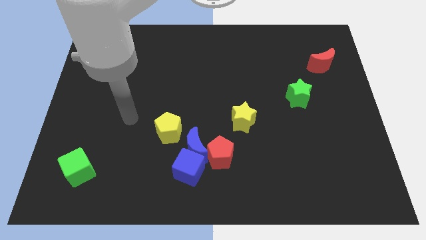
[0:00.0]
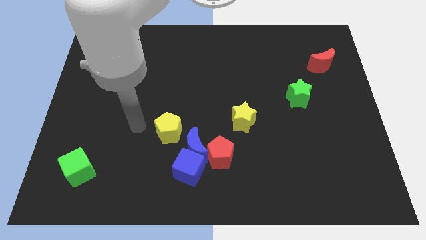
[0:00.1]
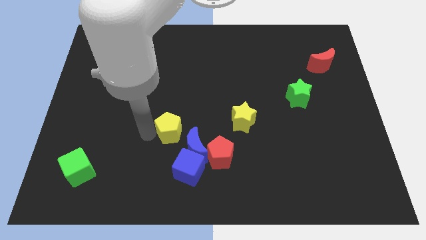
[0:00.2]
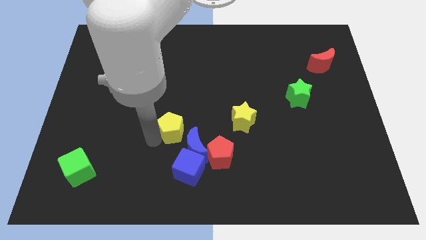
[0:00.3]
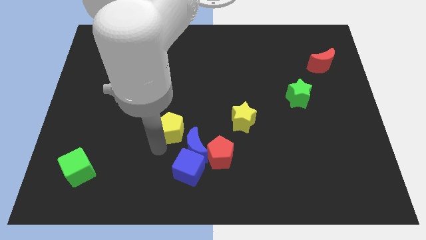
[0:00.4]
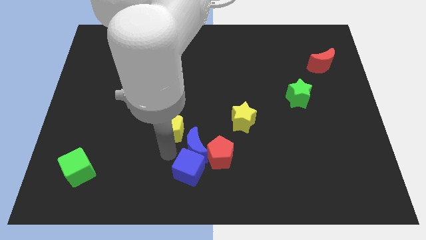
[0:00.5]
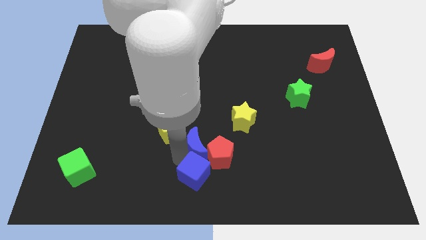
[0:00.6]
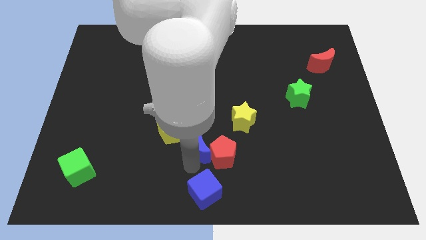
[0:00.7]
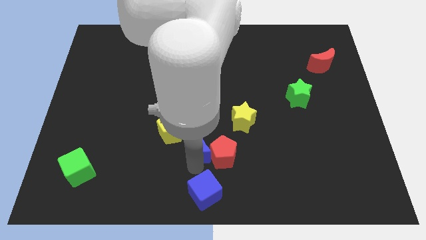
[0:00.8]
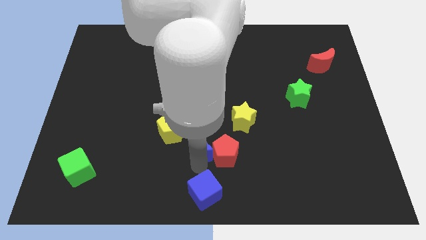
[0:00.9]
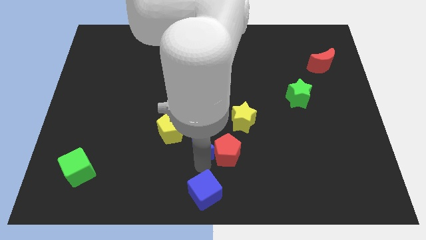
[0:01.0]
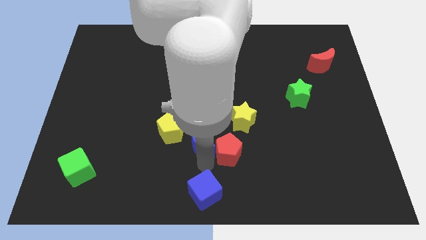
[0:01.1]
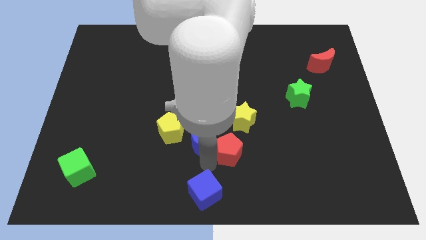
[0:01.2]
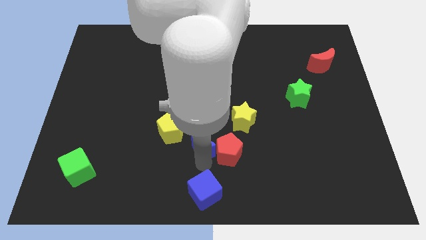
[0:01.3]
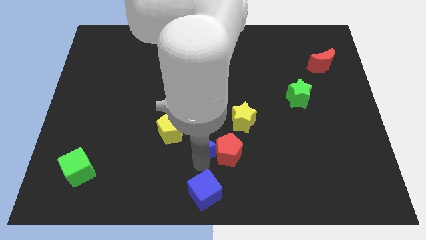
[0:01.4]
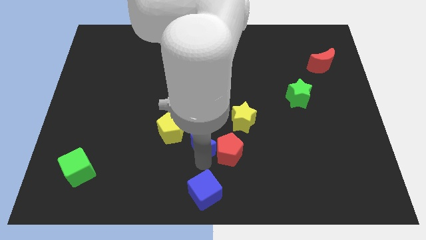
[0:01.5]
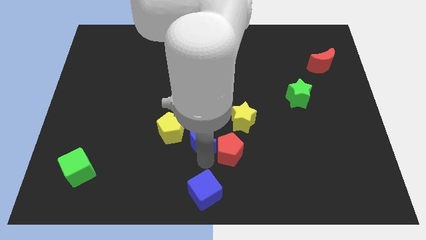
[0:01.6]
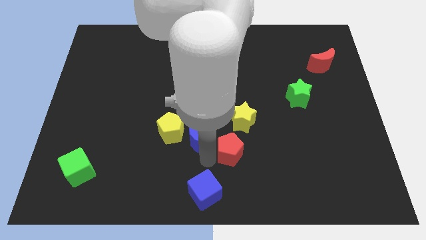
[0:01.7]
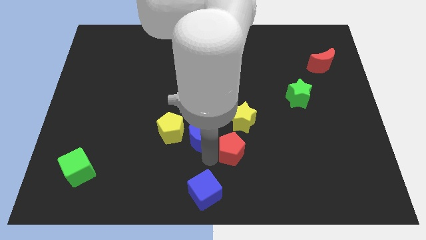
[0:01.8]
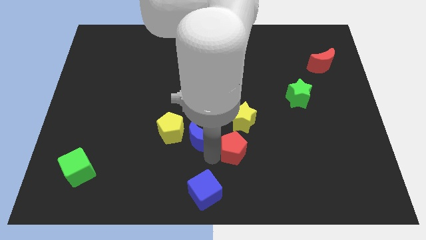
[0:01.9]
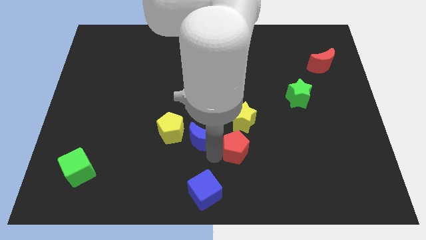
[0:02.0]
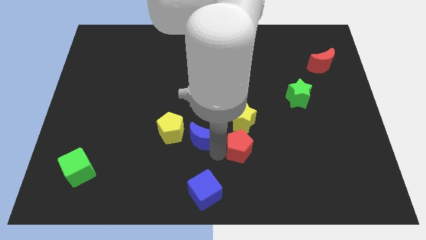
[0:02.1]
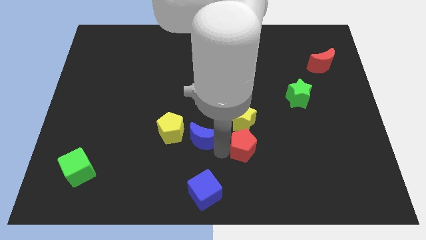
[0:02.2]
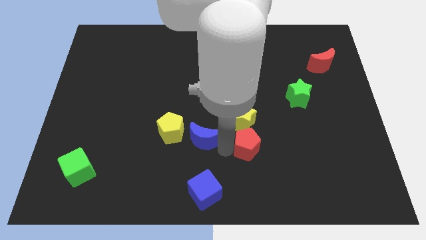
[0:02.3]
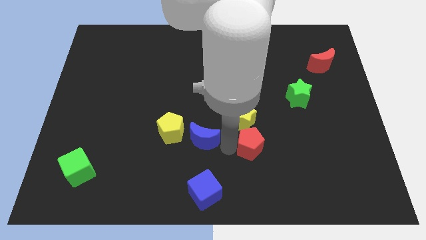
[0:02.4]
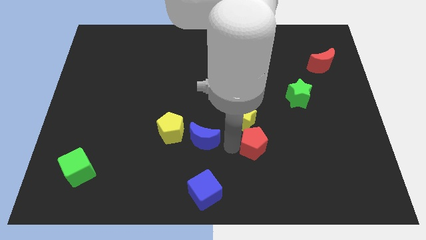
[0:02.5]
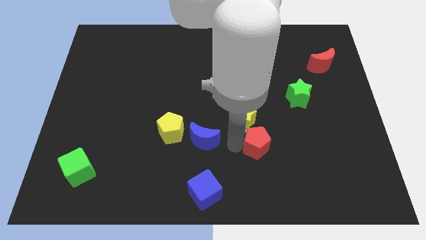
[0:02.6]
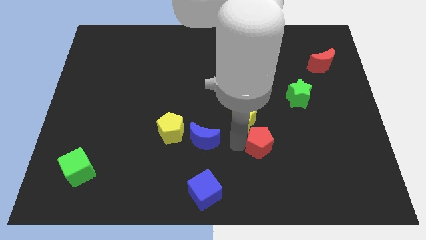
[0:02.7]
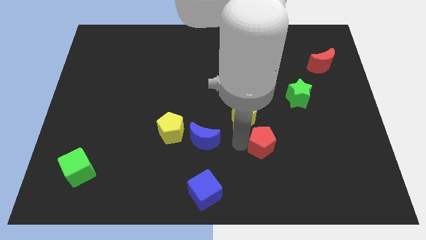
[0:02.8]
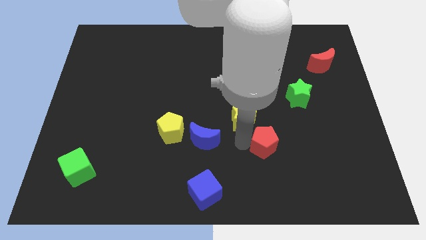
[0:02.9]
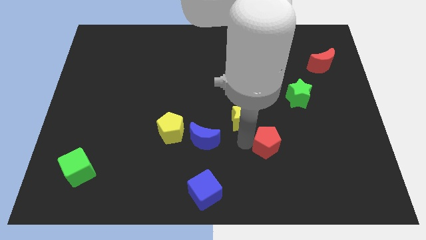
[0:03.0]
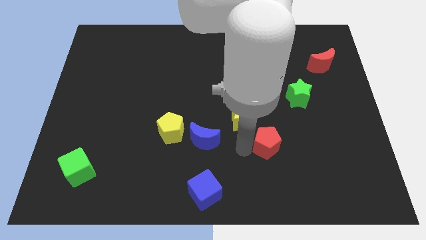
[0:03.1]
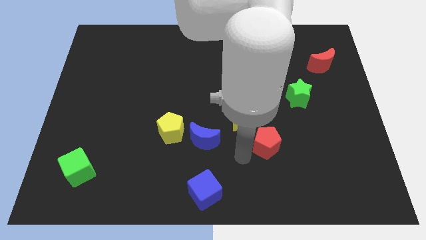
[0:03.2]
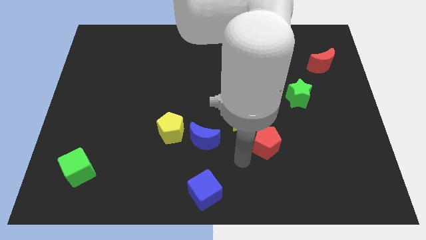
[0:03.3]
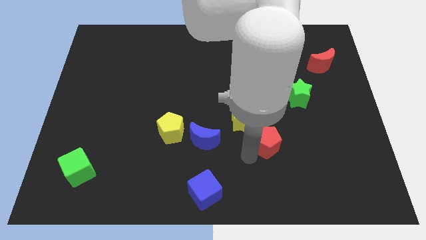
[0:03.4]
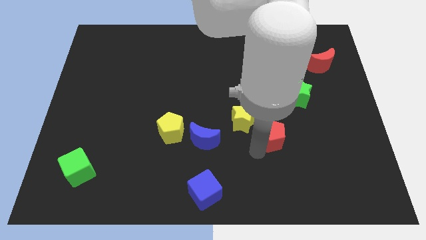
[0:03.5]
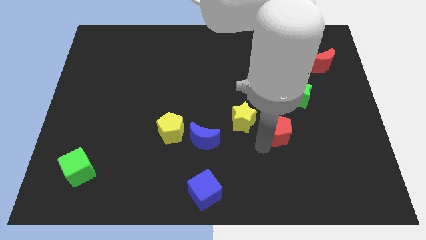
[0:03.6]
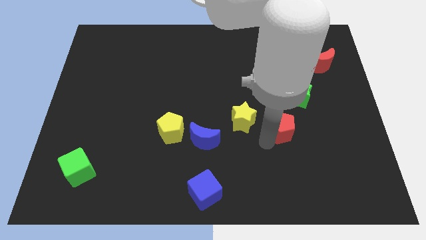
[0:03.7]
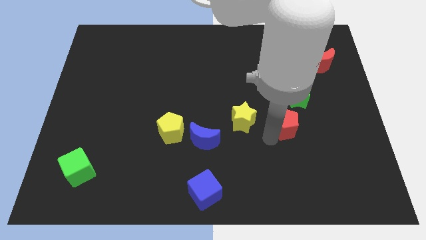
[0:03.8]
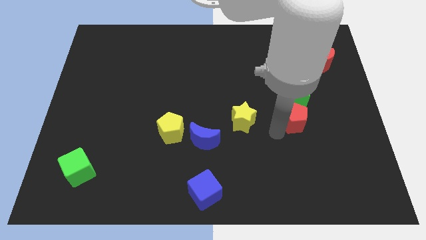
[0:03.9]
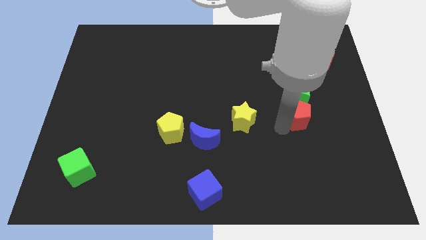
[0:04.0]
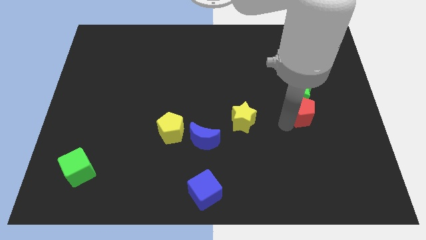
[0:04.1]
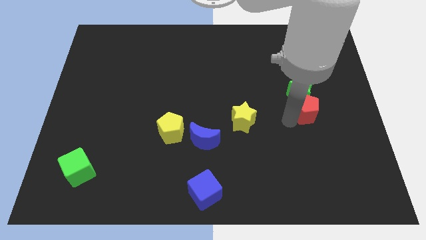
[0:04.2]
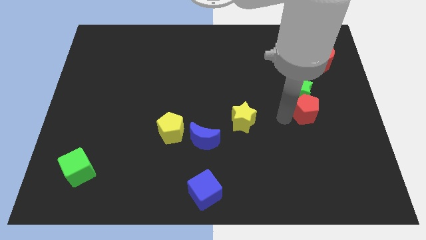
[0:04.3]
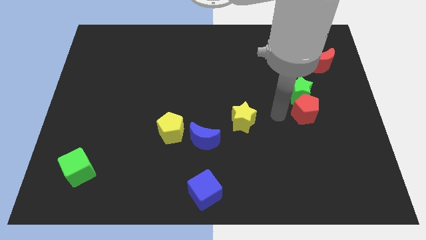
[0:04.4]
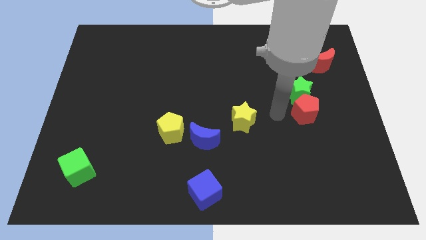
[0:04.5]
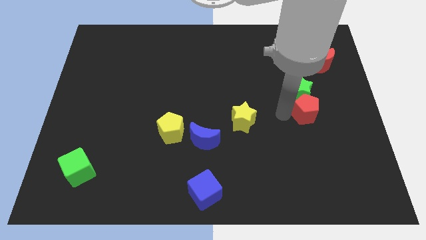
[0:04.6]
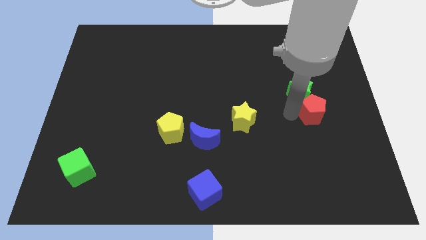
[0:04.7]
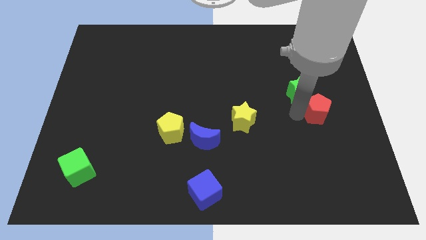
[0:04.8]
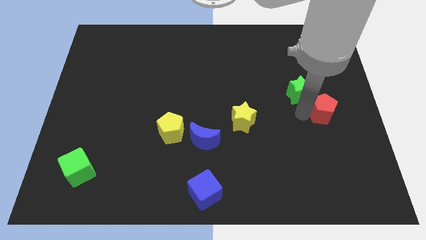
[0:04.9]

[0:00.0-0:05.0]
slide the red pentagon to the right side

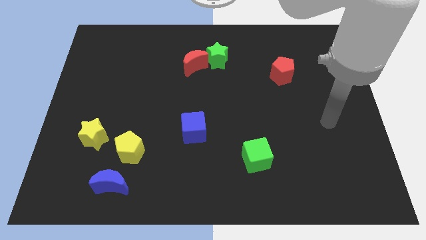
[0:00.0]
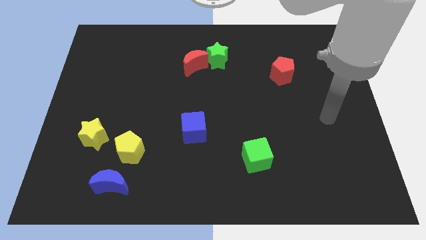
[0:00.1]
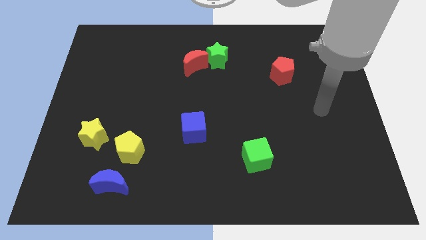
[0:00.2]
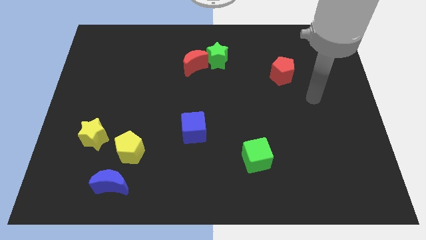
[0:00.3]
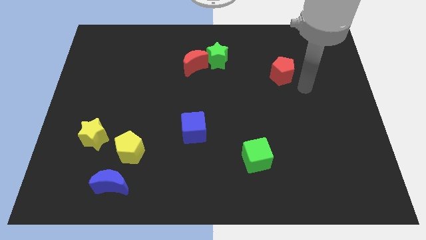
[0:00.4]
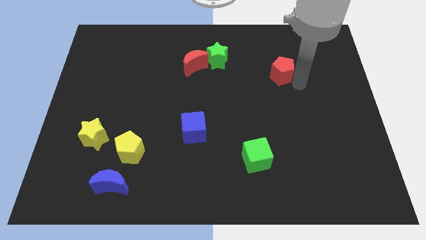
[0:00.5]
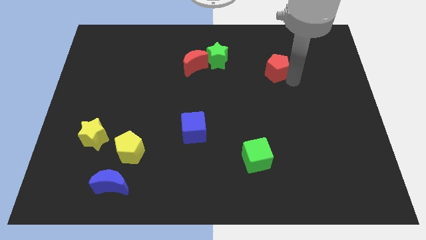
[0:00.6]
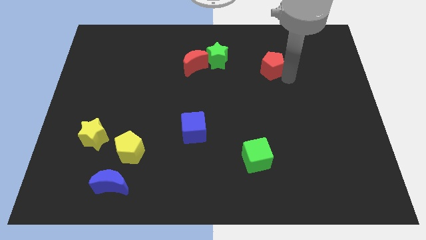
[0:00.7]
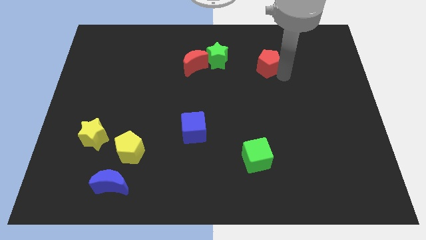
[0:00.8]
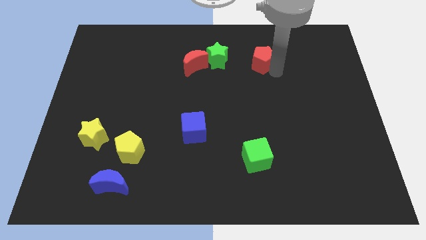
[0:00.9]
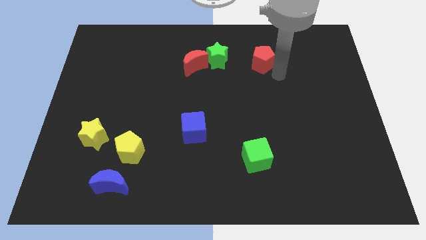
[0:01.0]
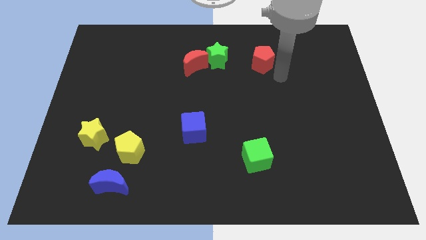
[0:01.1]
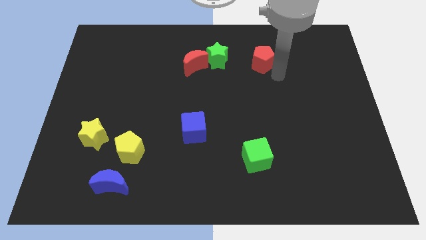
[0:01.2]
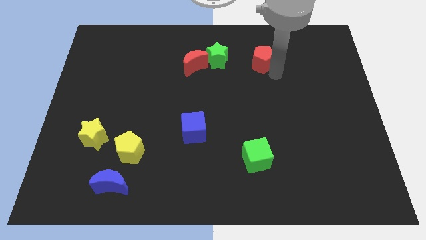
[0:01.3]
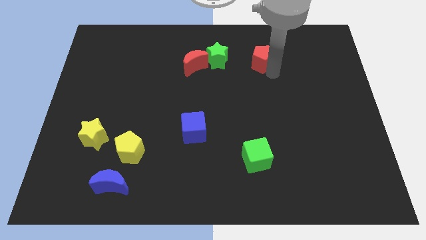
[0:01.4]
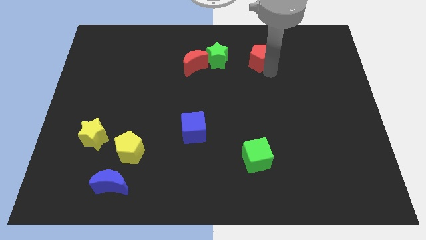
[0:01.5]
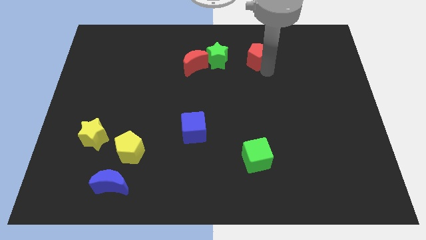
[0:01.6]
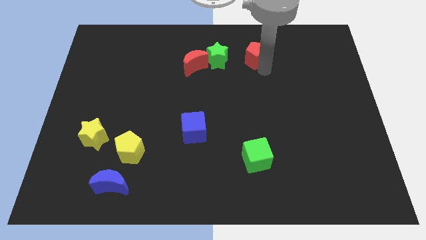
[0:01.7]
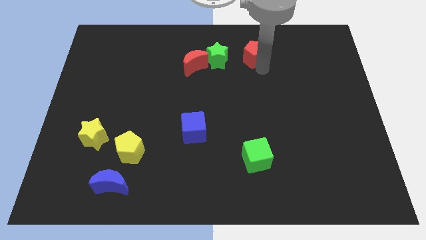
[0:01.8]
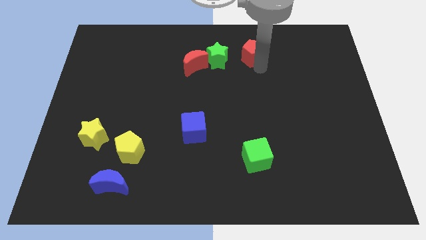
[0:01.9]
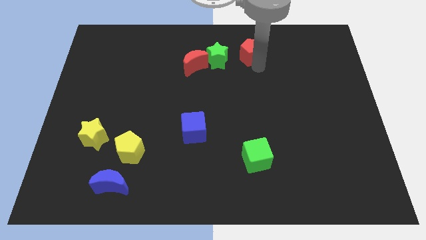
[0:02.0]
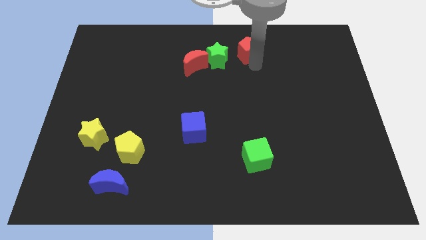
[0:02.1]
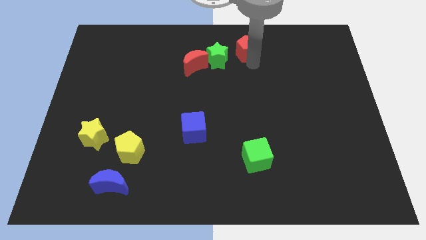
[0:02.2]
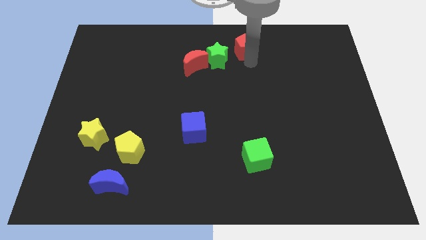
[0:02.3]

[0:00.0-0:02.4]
move the red pentagon to the towards your base
